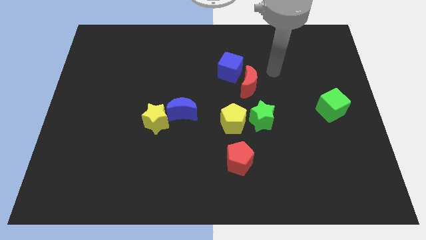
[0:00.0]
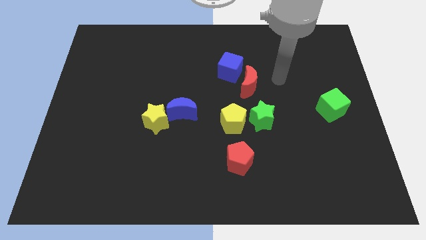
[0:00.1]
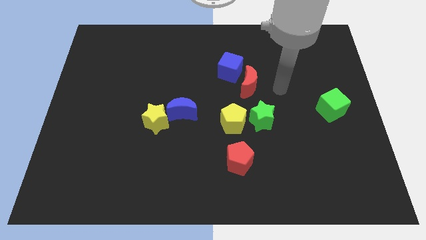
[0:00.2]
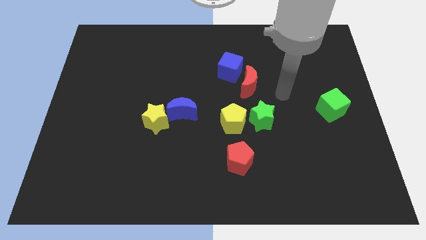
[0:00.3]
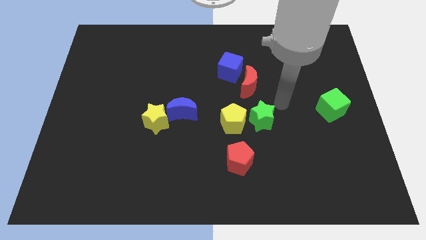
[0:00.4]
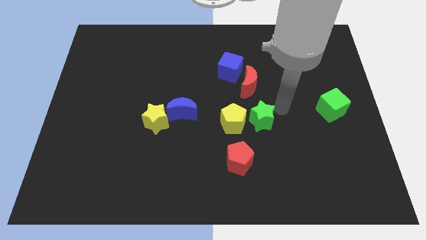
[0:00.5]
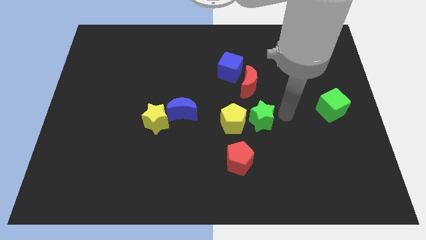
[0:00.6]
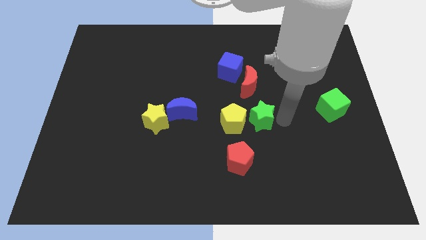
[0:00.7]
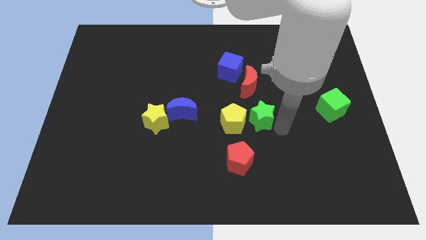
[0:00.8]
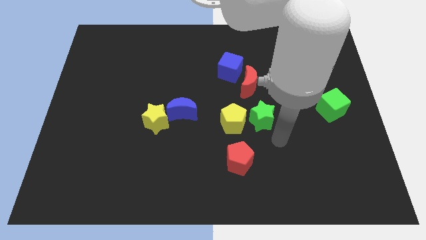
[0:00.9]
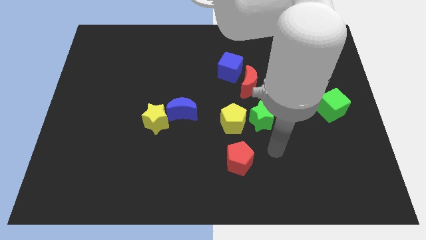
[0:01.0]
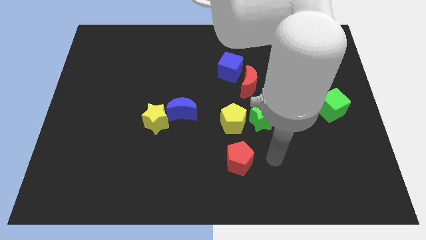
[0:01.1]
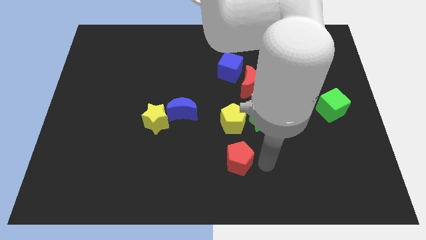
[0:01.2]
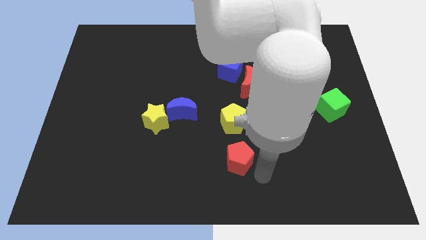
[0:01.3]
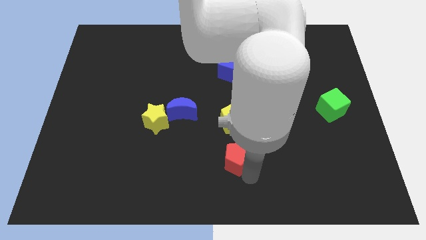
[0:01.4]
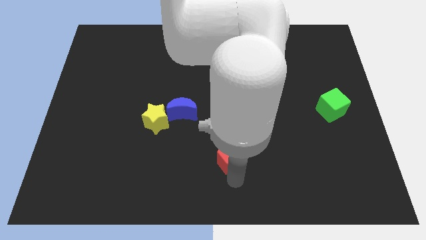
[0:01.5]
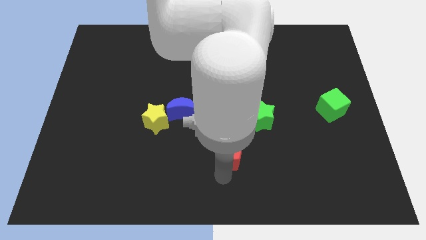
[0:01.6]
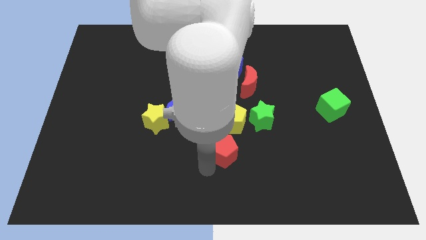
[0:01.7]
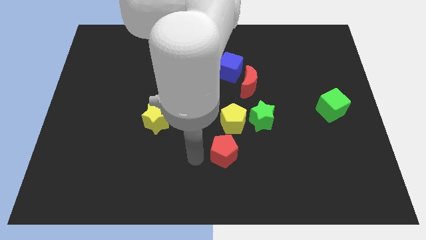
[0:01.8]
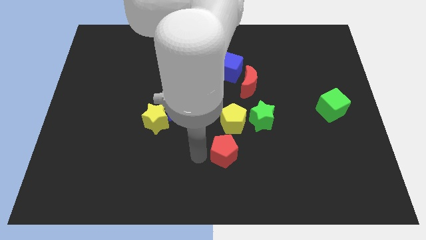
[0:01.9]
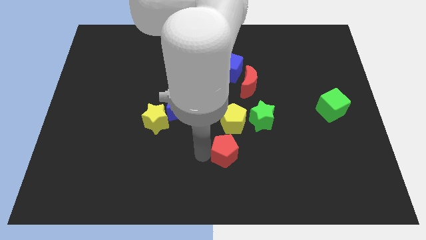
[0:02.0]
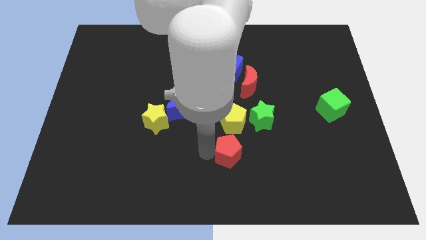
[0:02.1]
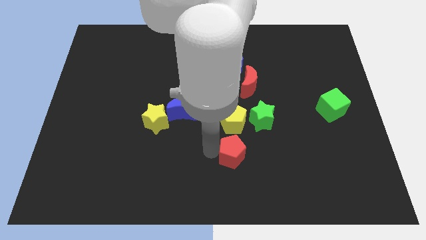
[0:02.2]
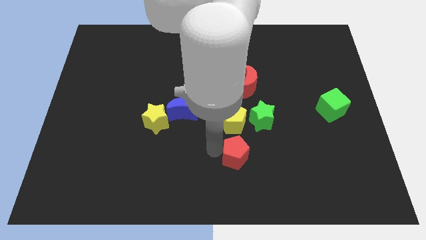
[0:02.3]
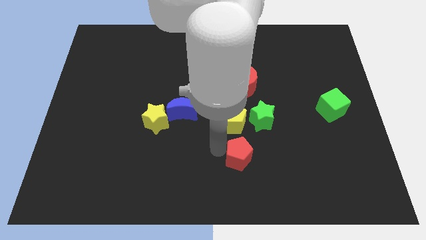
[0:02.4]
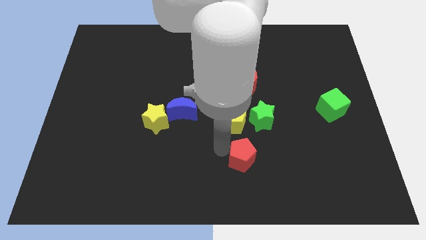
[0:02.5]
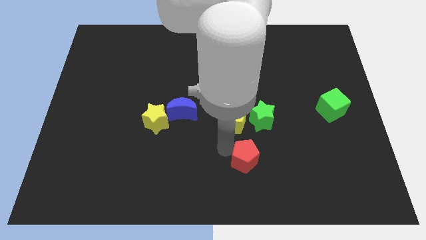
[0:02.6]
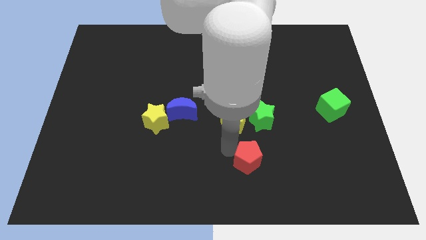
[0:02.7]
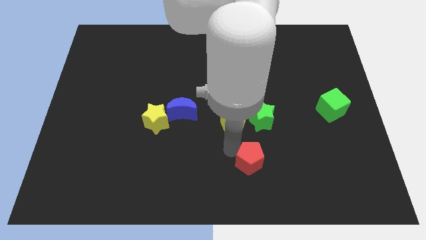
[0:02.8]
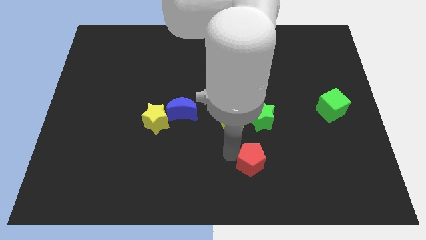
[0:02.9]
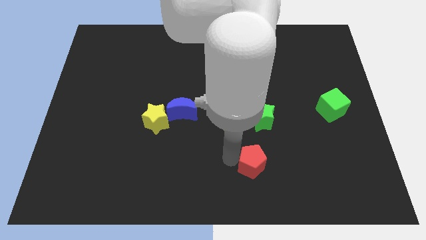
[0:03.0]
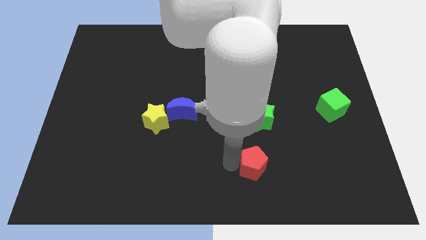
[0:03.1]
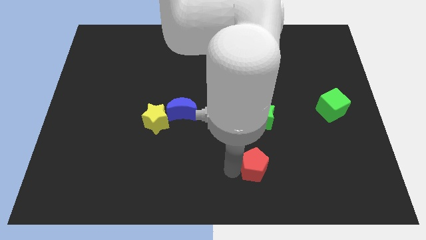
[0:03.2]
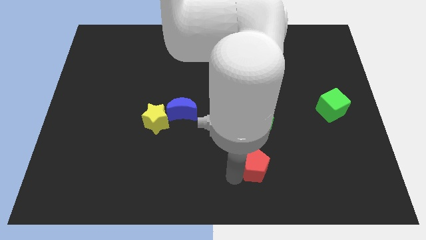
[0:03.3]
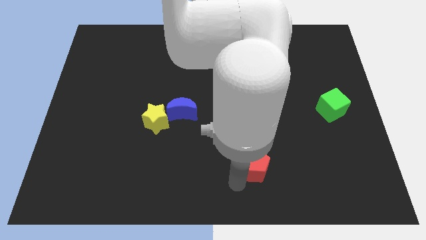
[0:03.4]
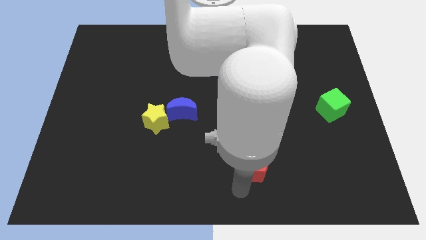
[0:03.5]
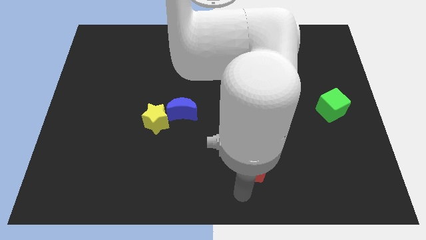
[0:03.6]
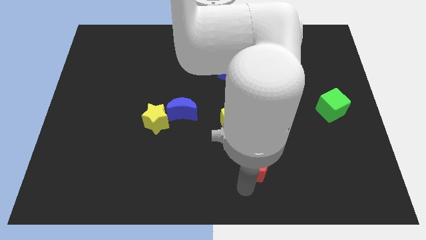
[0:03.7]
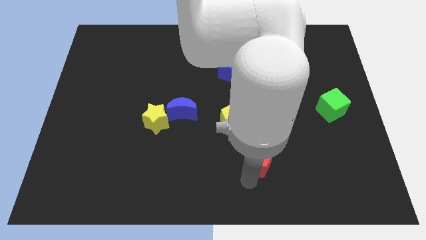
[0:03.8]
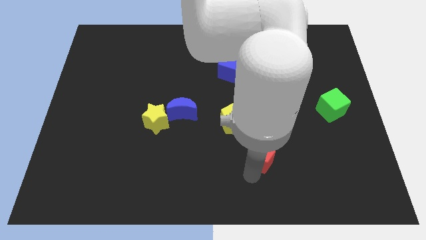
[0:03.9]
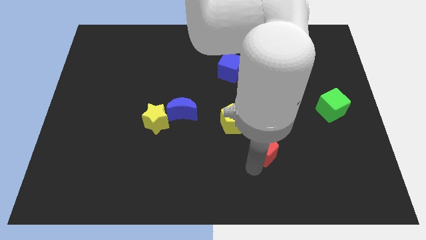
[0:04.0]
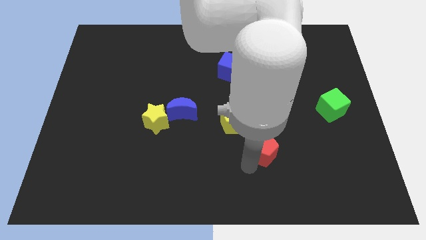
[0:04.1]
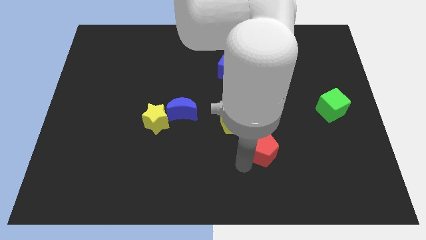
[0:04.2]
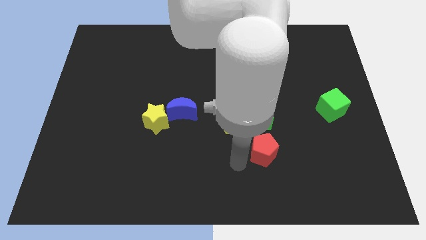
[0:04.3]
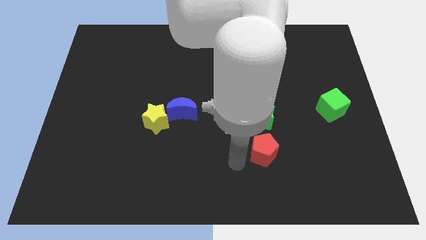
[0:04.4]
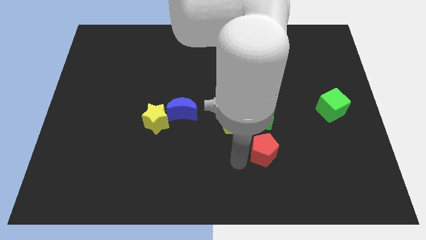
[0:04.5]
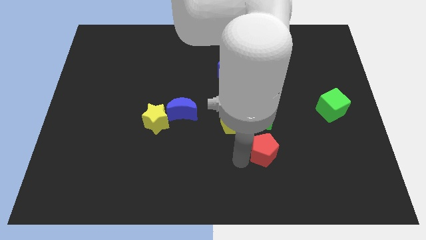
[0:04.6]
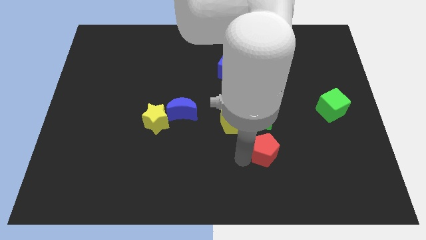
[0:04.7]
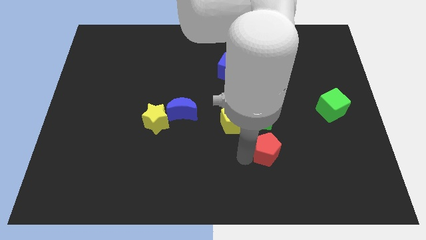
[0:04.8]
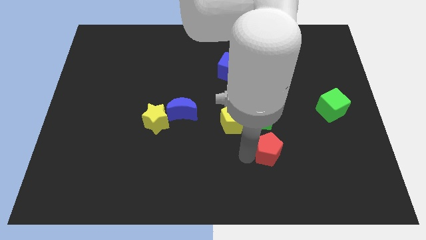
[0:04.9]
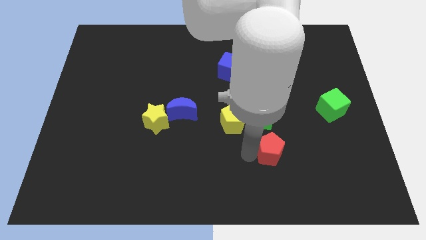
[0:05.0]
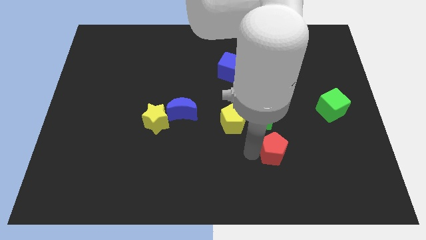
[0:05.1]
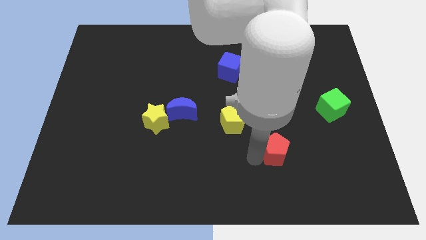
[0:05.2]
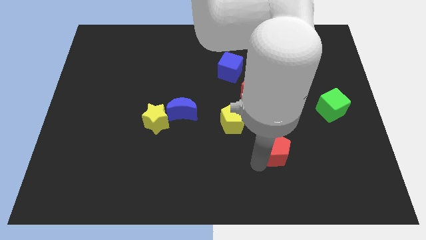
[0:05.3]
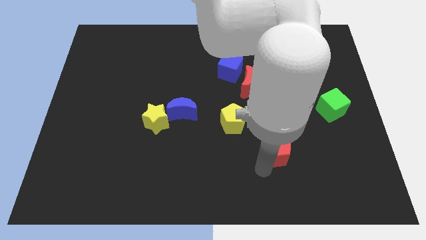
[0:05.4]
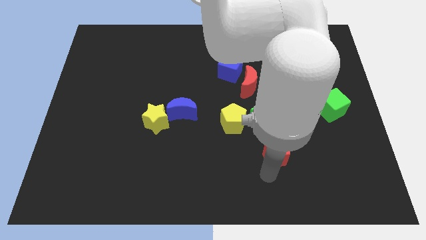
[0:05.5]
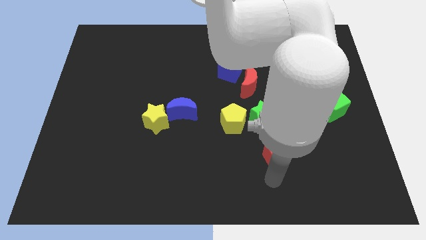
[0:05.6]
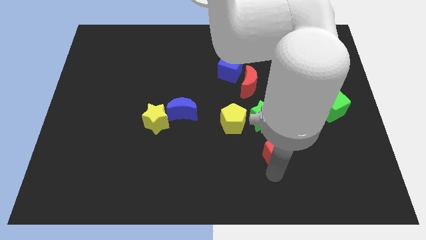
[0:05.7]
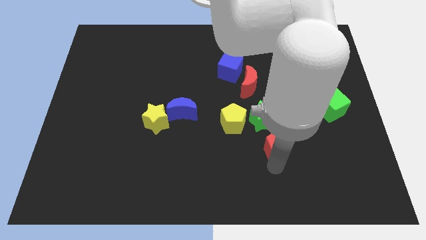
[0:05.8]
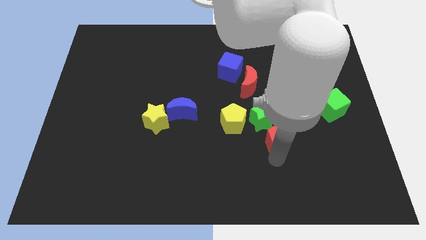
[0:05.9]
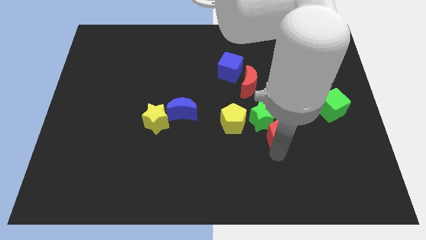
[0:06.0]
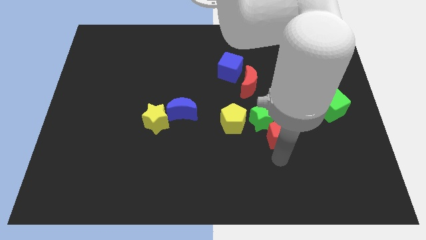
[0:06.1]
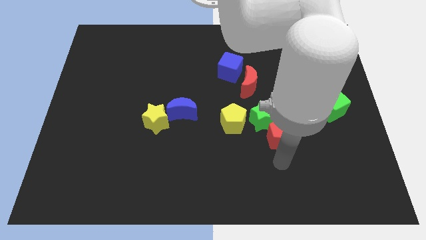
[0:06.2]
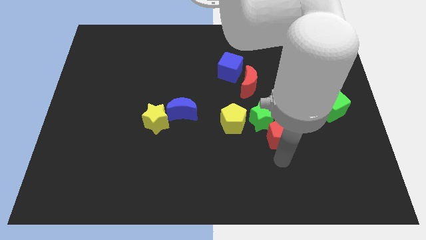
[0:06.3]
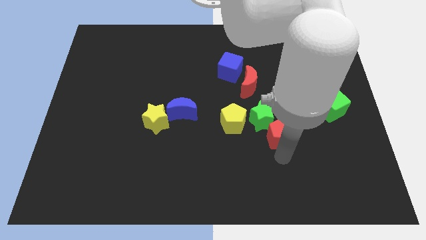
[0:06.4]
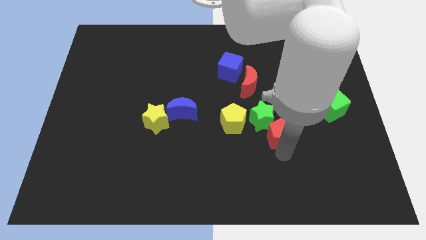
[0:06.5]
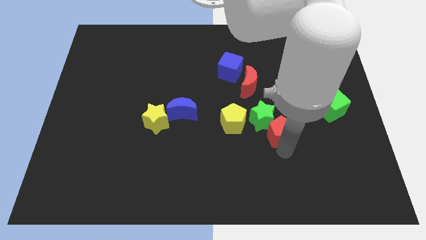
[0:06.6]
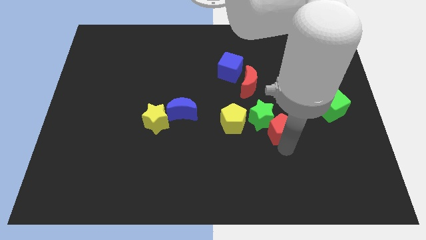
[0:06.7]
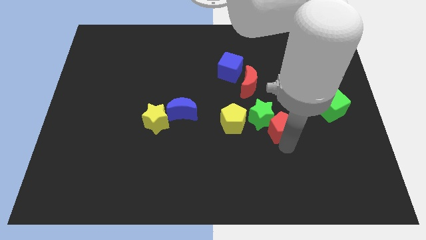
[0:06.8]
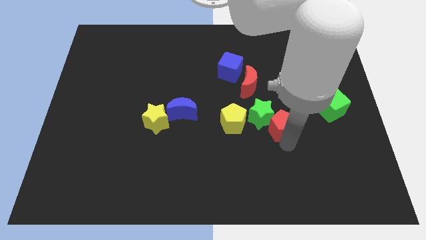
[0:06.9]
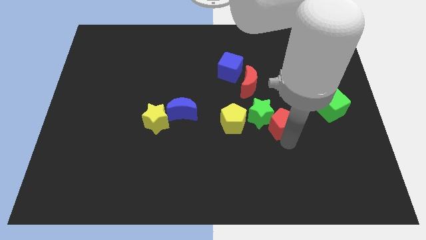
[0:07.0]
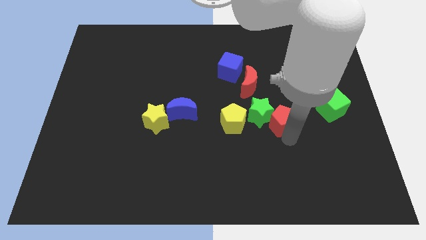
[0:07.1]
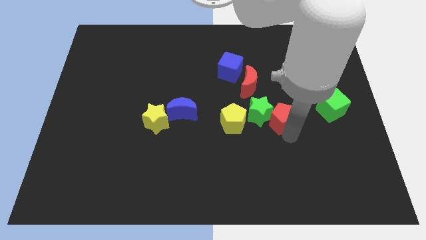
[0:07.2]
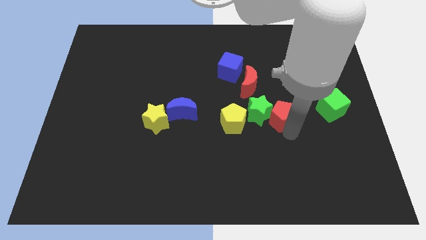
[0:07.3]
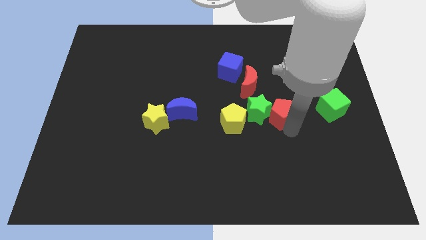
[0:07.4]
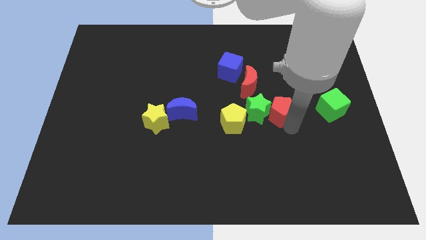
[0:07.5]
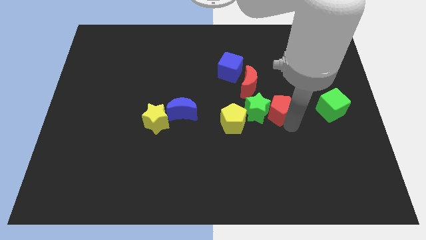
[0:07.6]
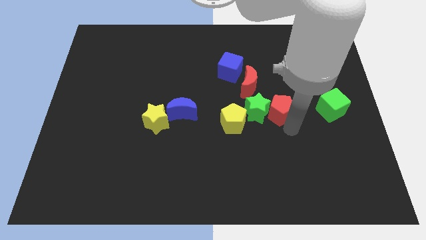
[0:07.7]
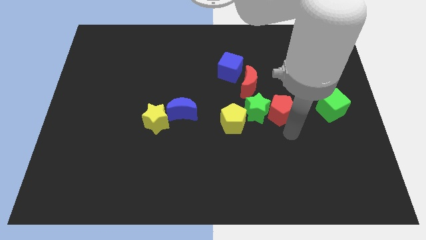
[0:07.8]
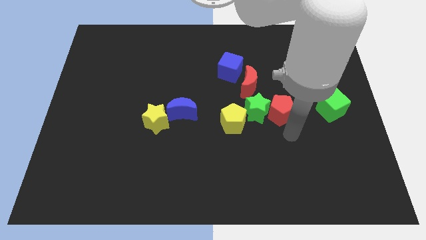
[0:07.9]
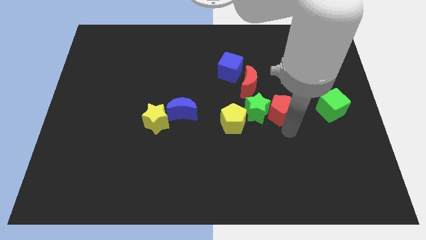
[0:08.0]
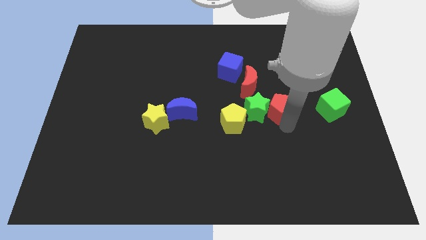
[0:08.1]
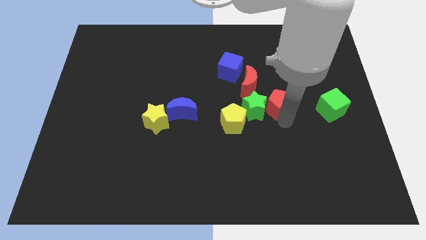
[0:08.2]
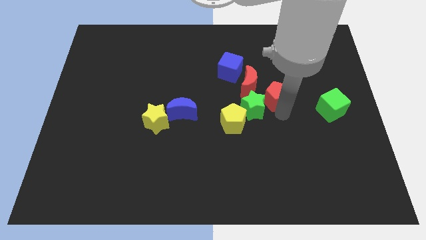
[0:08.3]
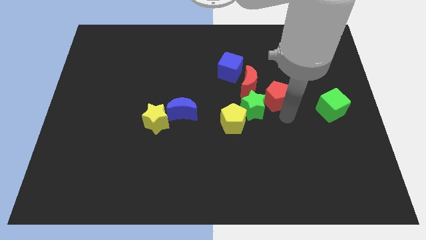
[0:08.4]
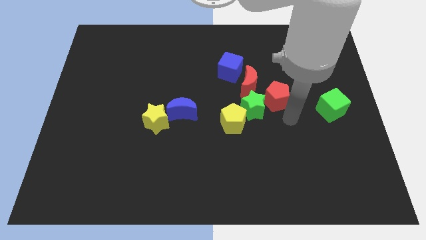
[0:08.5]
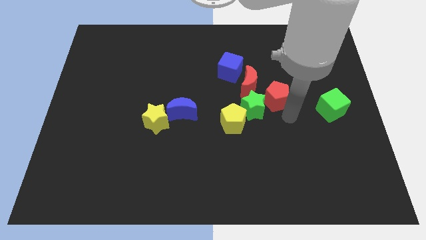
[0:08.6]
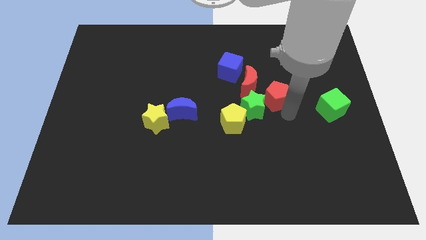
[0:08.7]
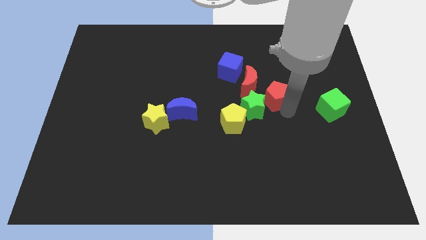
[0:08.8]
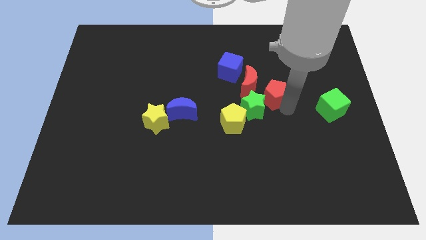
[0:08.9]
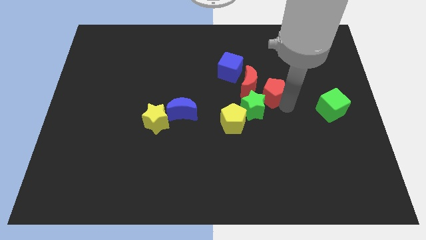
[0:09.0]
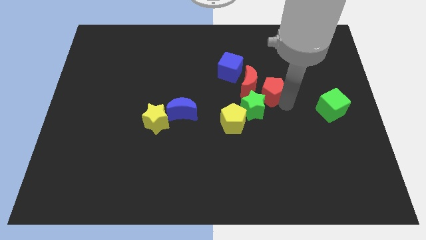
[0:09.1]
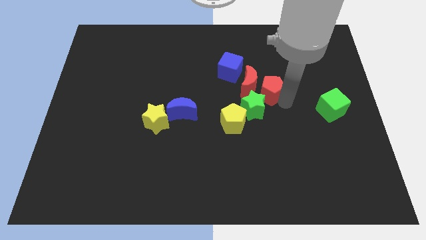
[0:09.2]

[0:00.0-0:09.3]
push the red pentagon to the top of the green star
